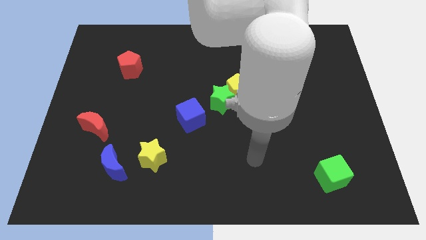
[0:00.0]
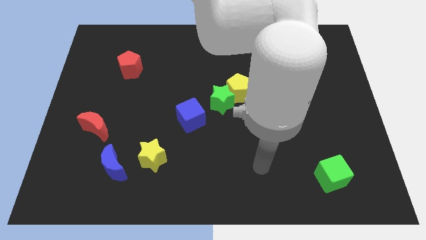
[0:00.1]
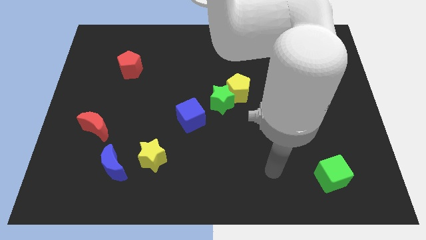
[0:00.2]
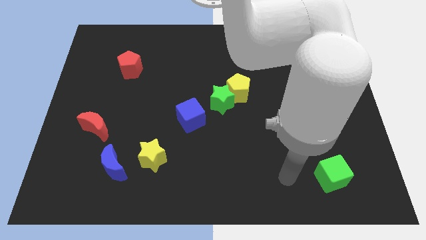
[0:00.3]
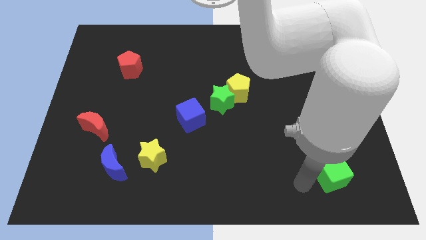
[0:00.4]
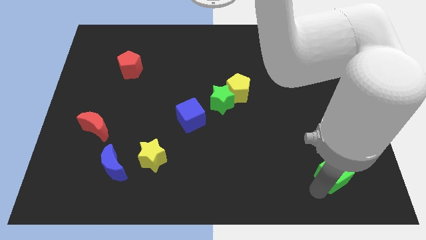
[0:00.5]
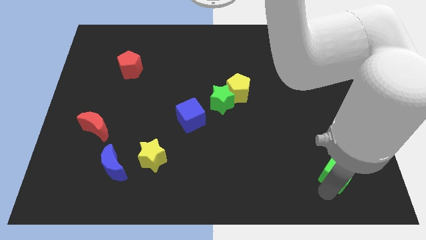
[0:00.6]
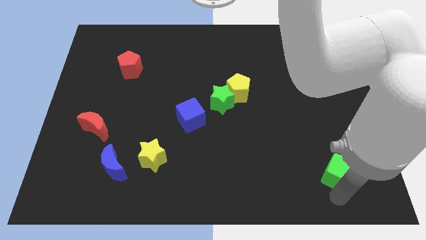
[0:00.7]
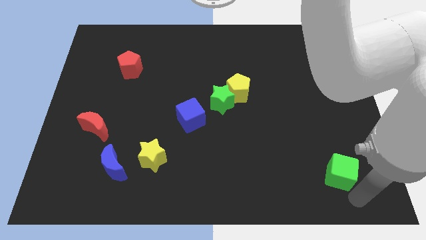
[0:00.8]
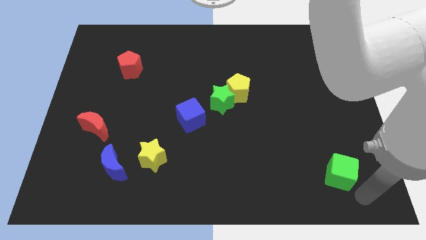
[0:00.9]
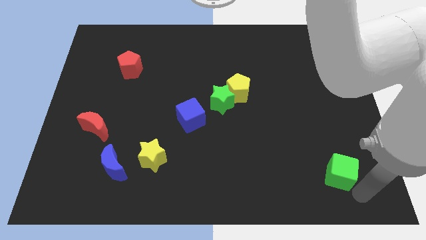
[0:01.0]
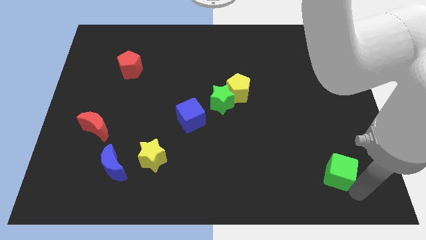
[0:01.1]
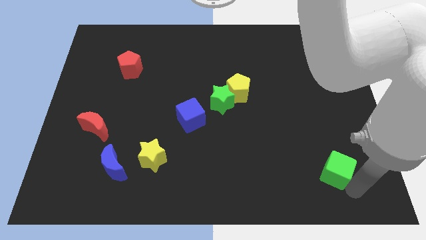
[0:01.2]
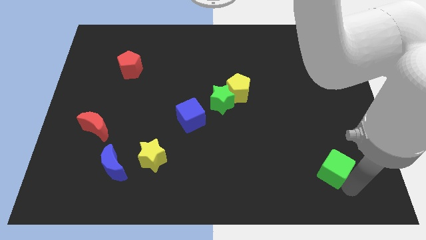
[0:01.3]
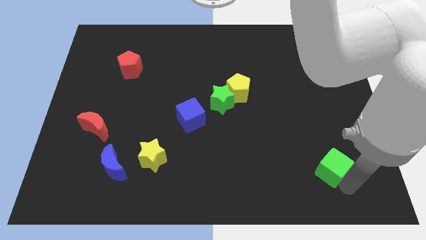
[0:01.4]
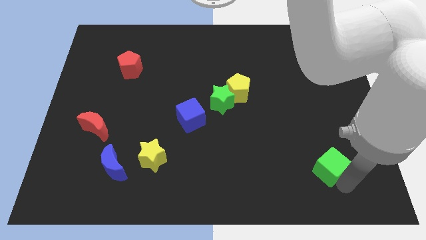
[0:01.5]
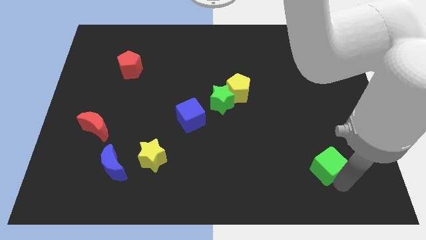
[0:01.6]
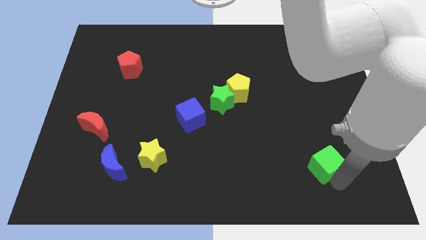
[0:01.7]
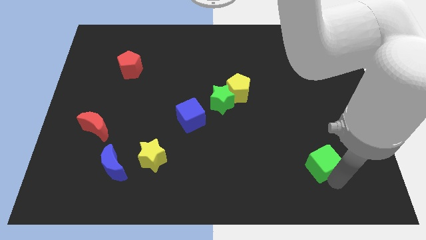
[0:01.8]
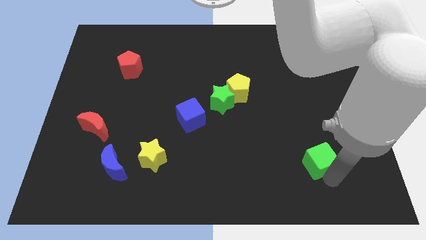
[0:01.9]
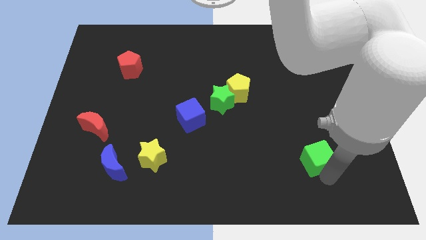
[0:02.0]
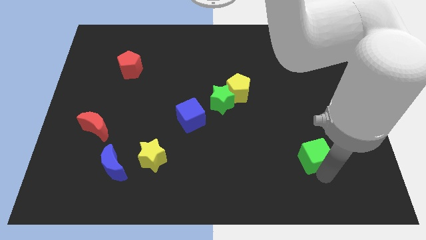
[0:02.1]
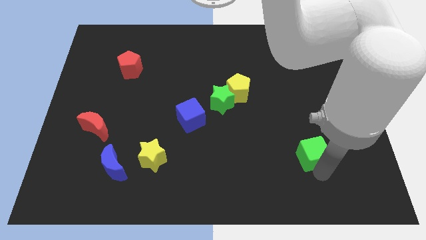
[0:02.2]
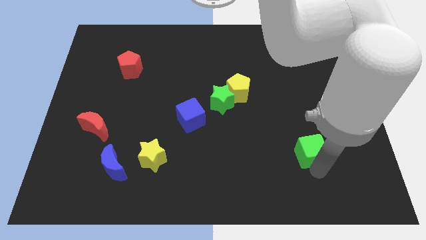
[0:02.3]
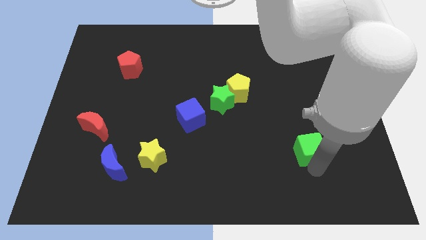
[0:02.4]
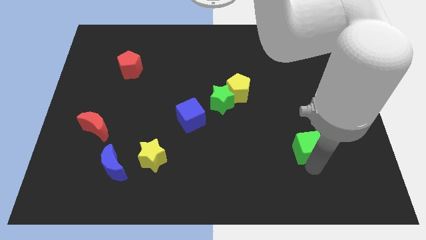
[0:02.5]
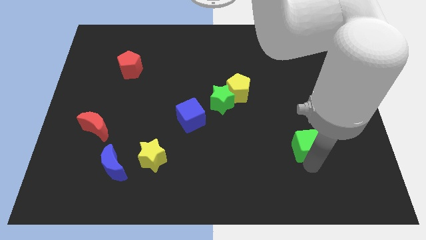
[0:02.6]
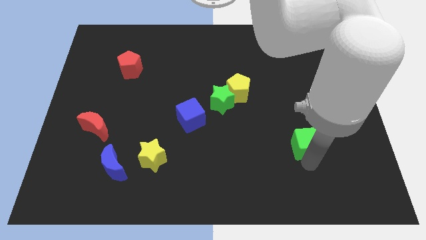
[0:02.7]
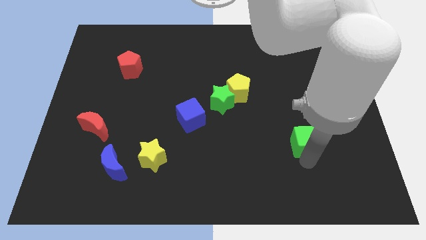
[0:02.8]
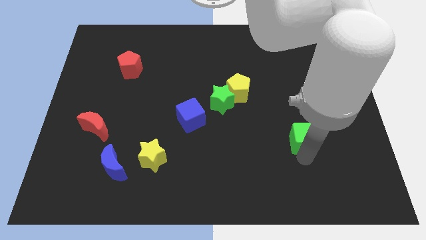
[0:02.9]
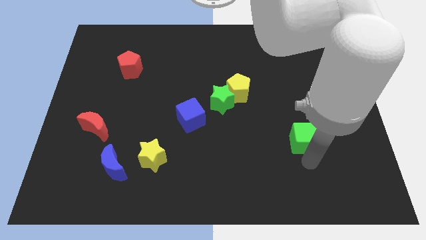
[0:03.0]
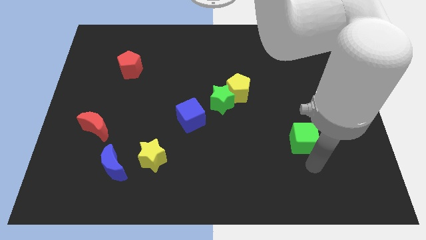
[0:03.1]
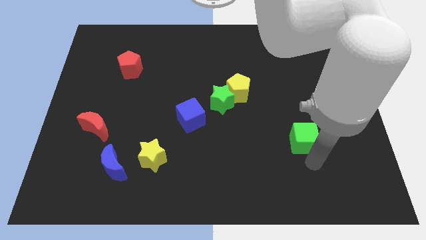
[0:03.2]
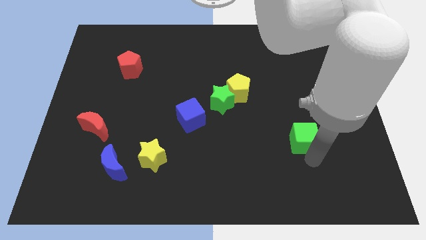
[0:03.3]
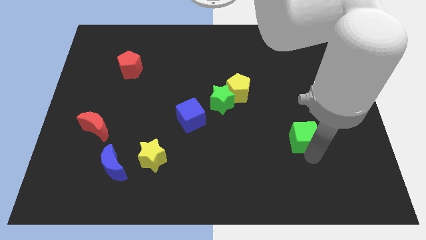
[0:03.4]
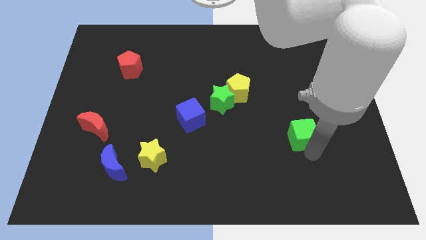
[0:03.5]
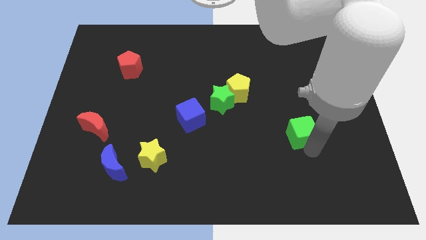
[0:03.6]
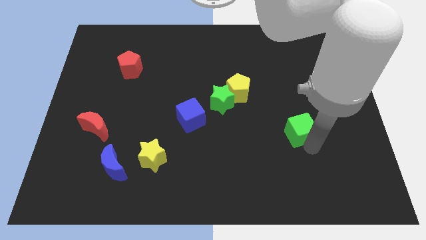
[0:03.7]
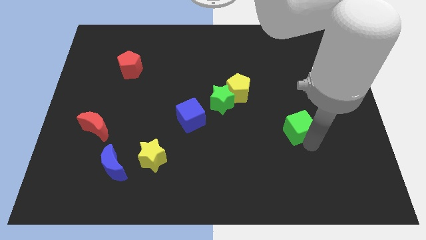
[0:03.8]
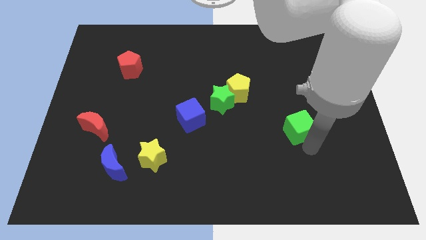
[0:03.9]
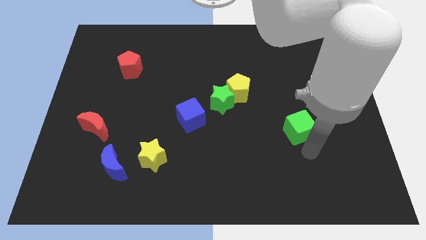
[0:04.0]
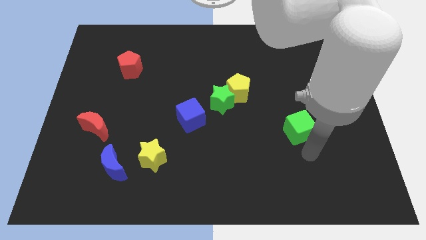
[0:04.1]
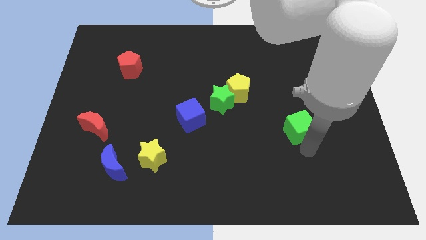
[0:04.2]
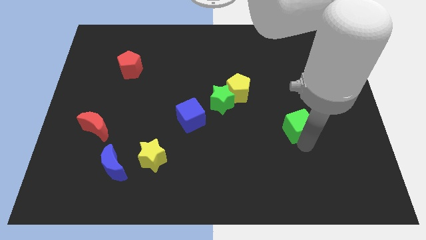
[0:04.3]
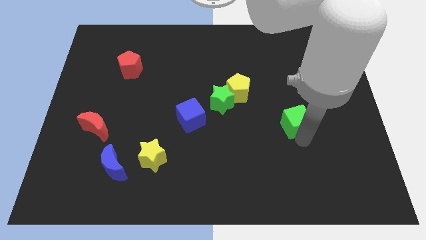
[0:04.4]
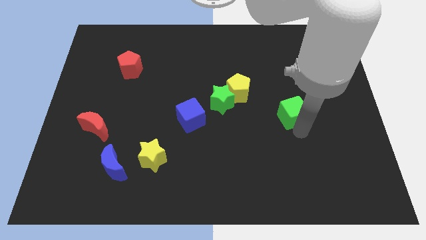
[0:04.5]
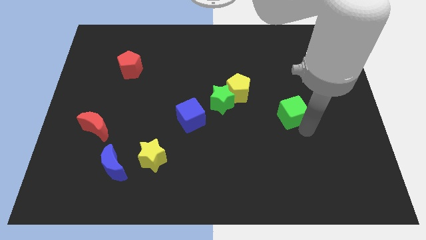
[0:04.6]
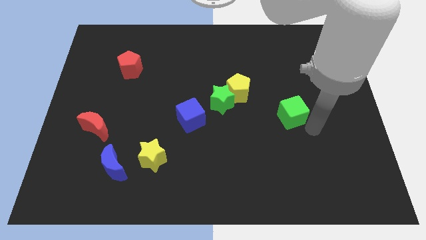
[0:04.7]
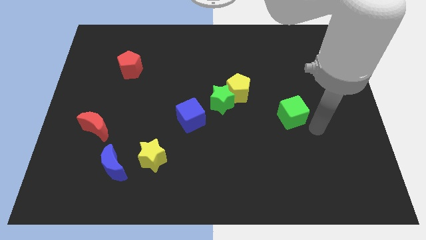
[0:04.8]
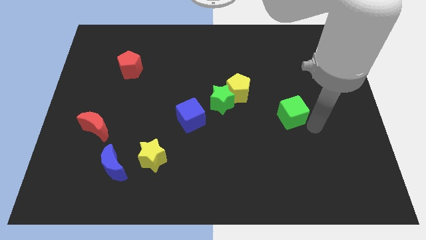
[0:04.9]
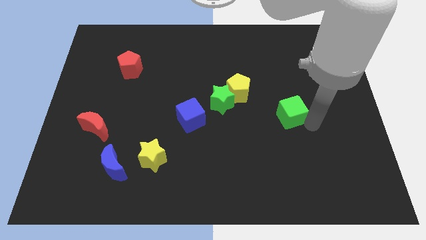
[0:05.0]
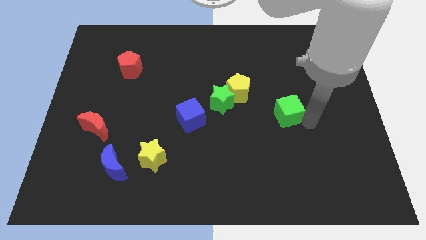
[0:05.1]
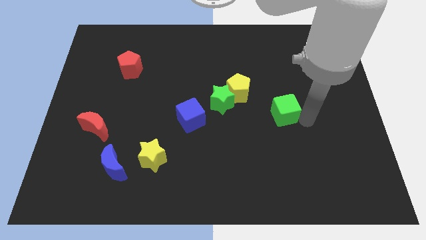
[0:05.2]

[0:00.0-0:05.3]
slide the green cube right of the green star

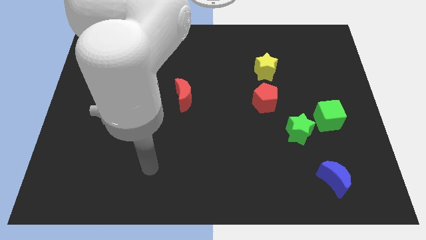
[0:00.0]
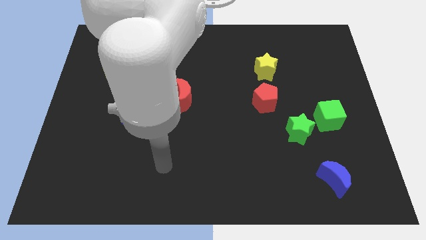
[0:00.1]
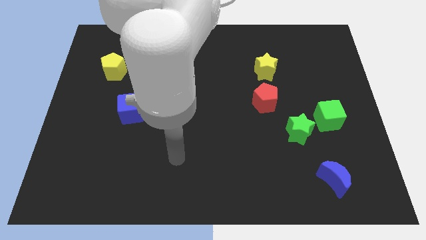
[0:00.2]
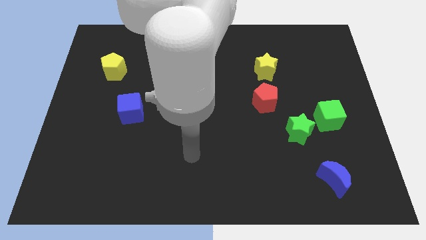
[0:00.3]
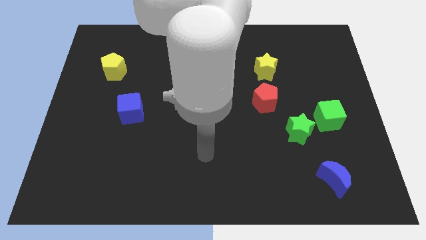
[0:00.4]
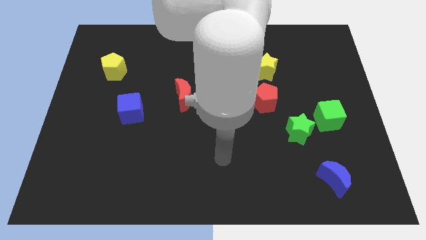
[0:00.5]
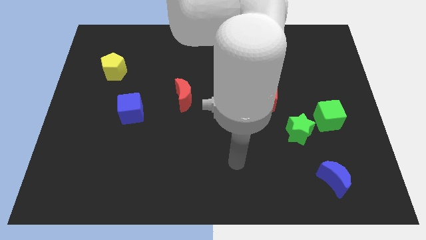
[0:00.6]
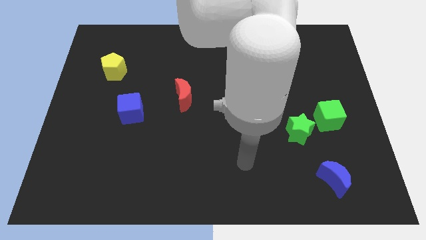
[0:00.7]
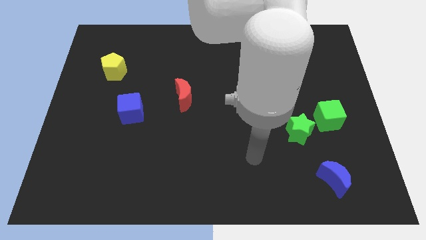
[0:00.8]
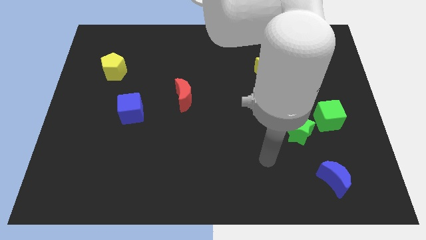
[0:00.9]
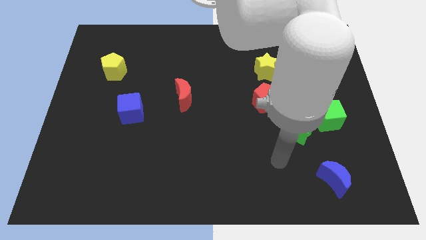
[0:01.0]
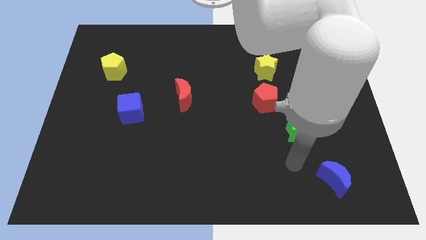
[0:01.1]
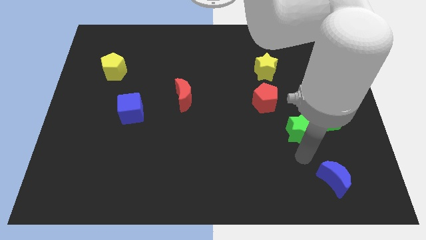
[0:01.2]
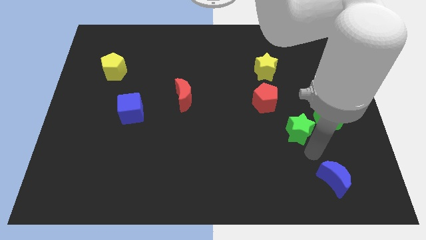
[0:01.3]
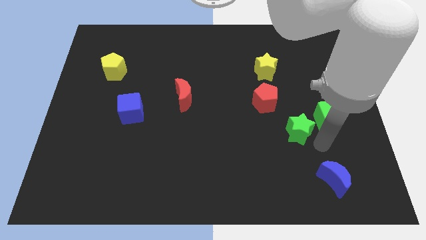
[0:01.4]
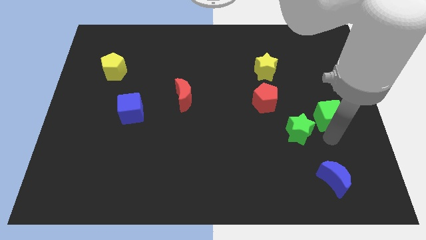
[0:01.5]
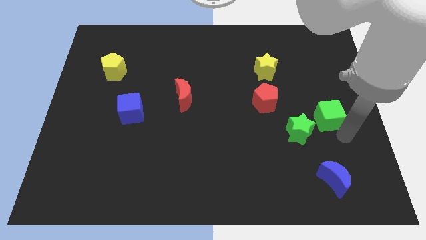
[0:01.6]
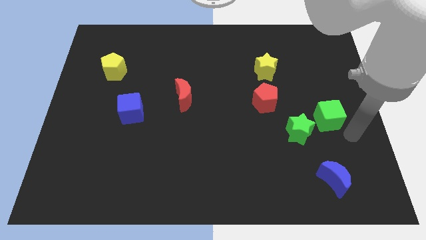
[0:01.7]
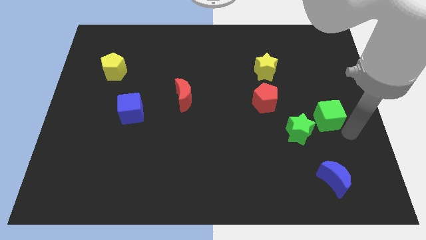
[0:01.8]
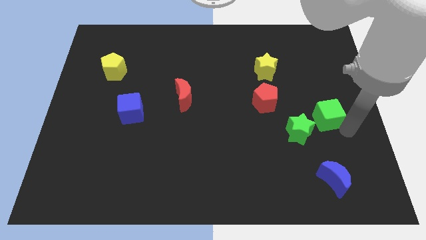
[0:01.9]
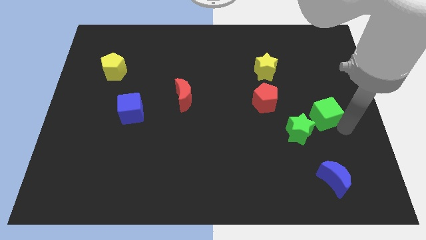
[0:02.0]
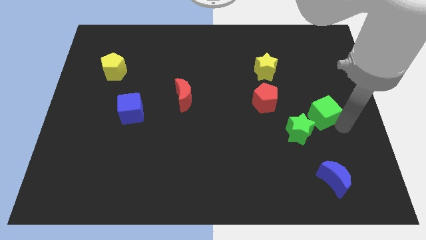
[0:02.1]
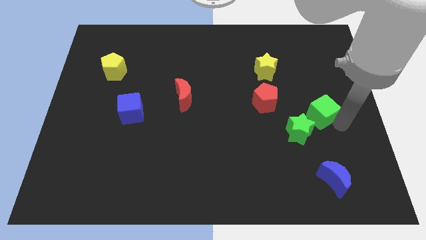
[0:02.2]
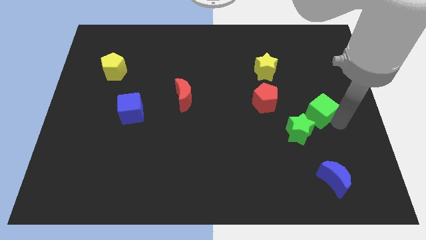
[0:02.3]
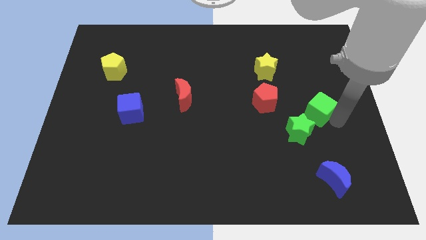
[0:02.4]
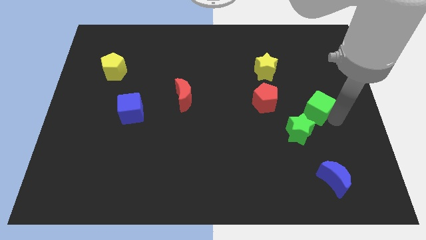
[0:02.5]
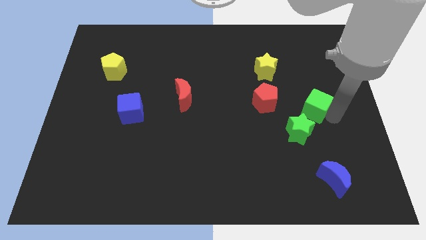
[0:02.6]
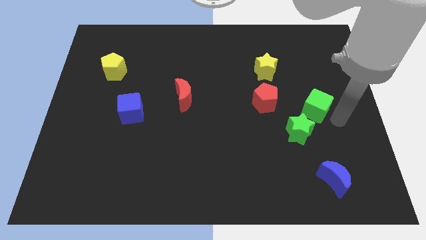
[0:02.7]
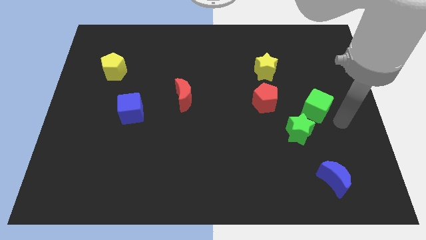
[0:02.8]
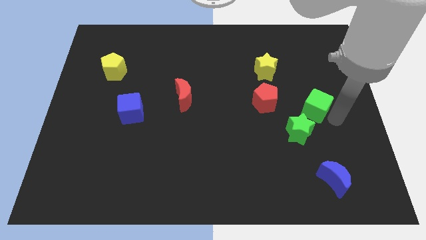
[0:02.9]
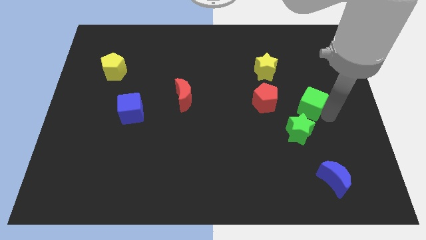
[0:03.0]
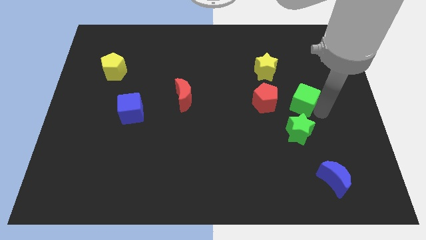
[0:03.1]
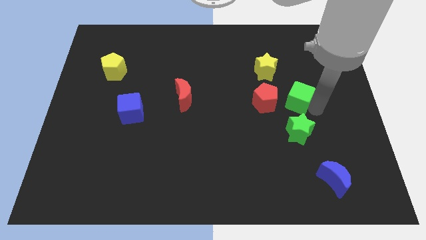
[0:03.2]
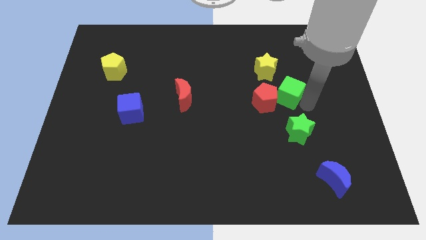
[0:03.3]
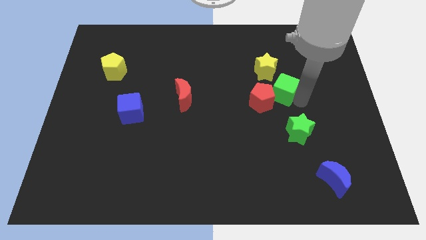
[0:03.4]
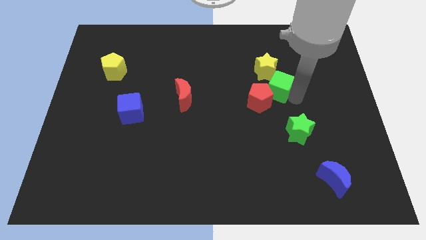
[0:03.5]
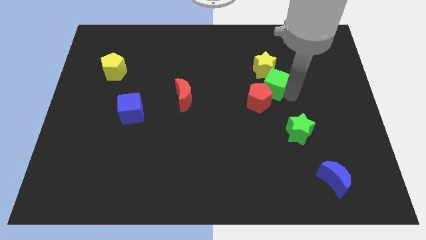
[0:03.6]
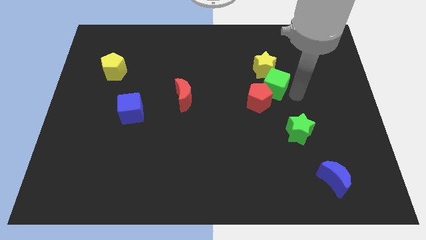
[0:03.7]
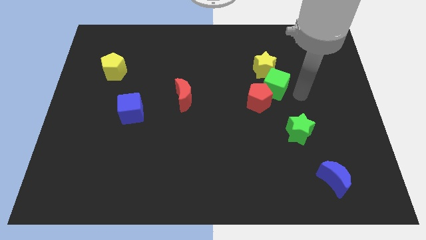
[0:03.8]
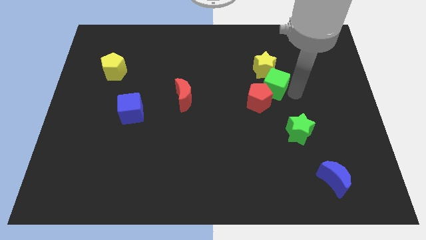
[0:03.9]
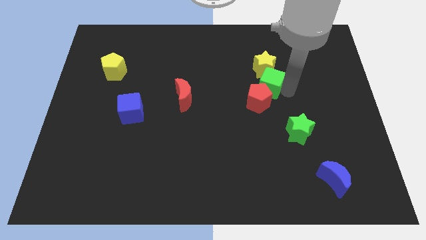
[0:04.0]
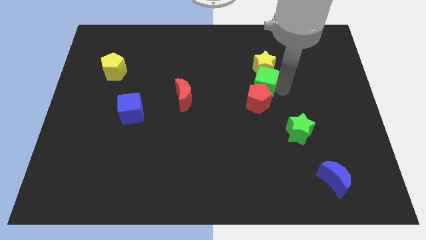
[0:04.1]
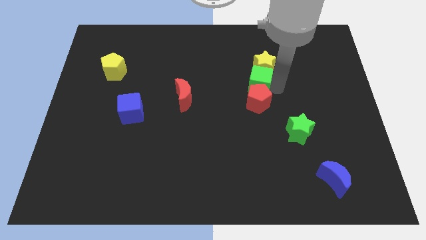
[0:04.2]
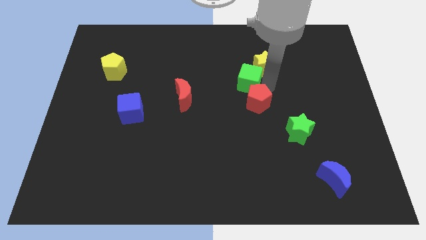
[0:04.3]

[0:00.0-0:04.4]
put the green cube to the left of the yellow star
